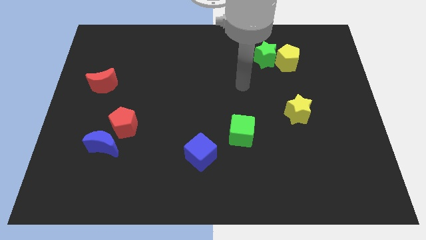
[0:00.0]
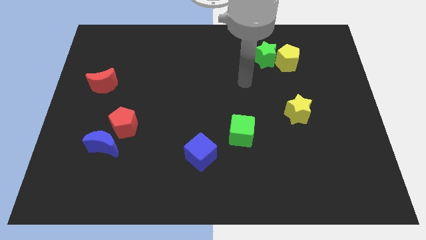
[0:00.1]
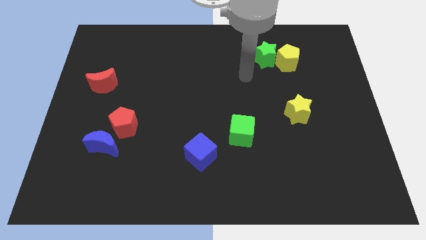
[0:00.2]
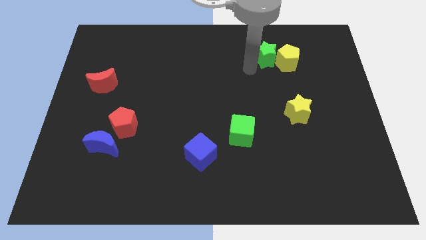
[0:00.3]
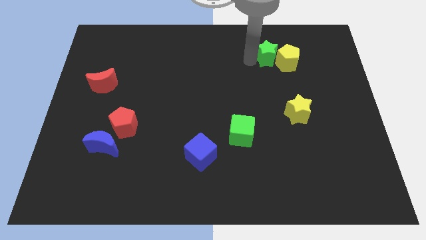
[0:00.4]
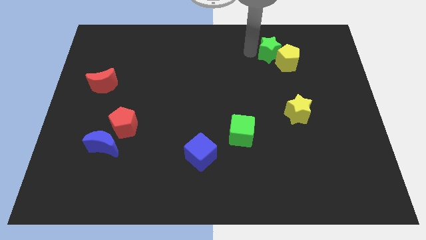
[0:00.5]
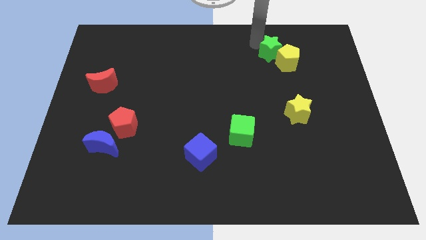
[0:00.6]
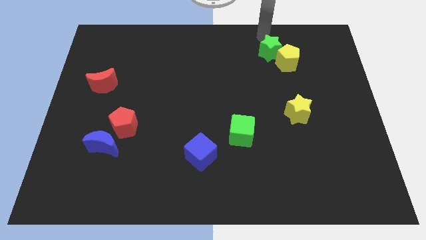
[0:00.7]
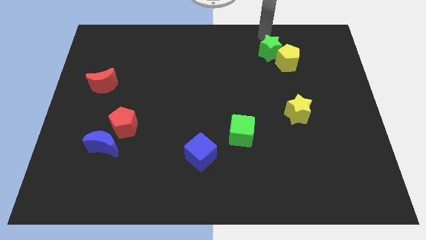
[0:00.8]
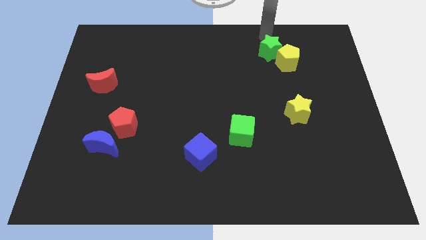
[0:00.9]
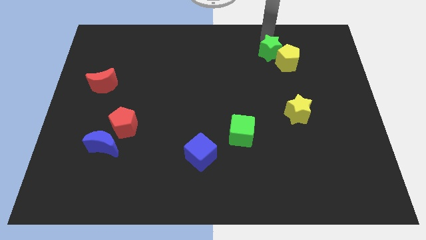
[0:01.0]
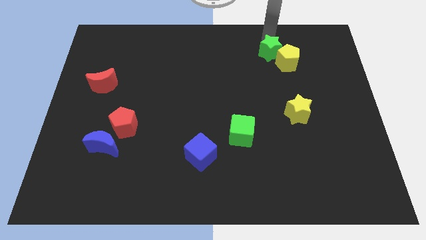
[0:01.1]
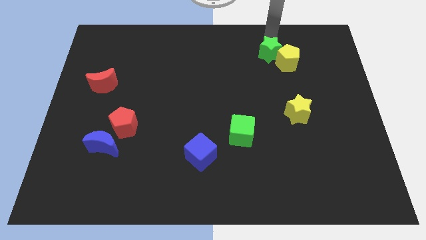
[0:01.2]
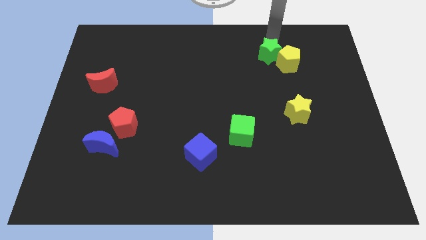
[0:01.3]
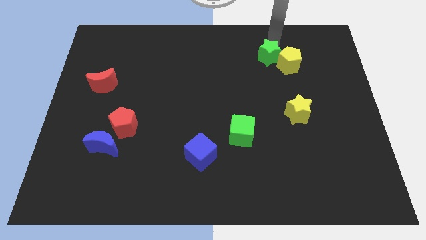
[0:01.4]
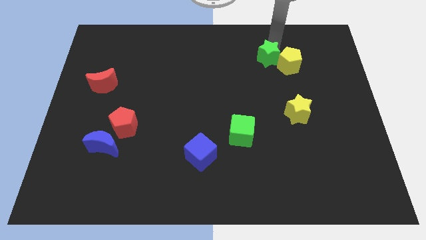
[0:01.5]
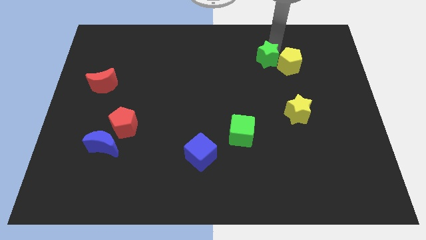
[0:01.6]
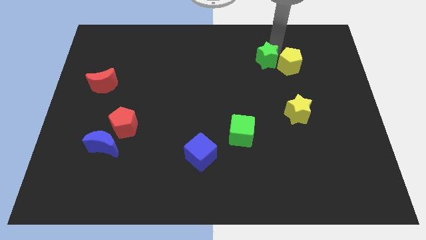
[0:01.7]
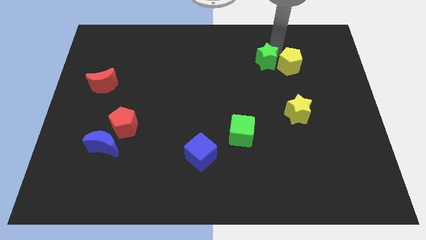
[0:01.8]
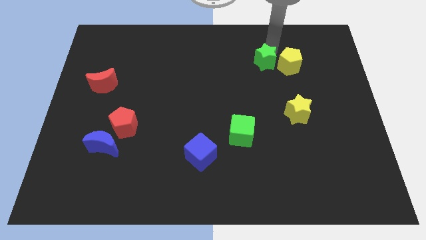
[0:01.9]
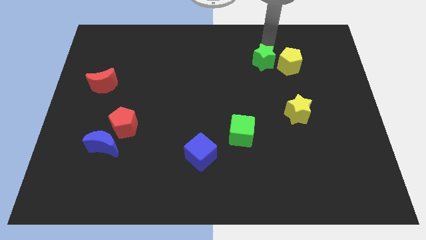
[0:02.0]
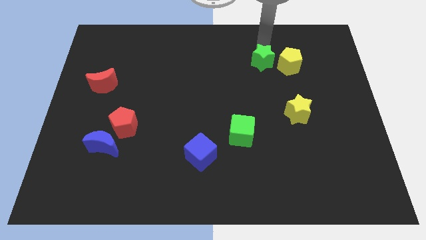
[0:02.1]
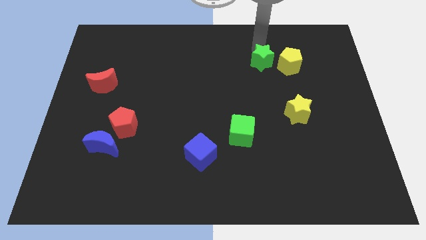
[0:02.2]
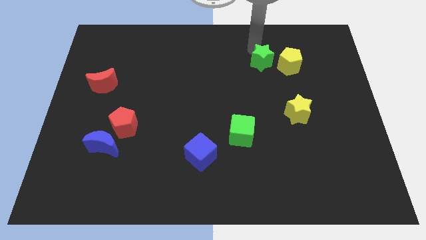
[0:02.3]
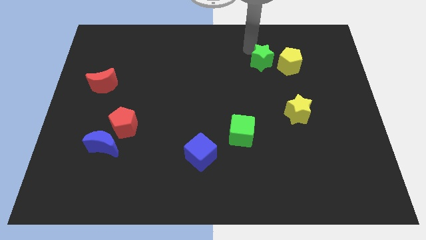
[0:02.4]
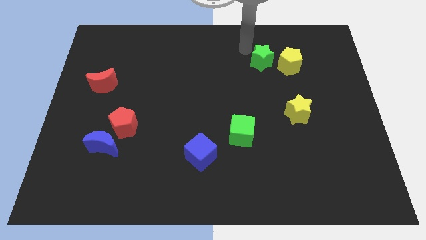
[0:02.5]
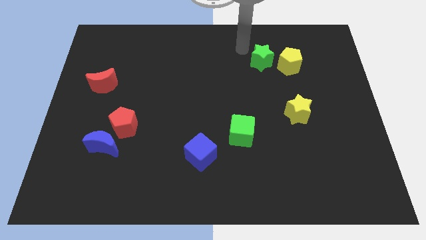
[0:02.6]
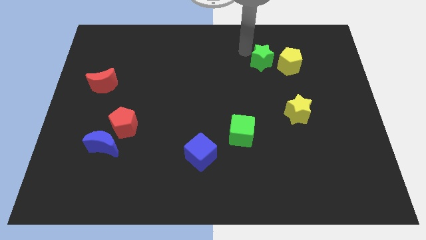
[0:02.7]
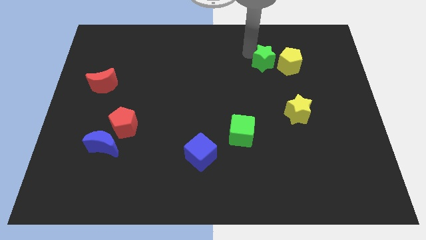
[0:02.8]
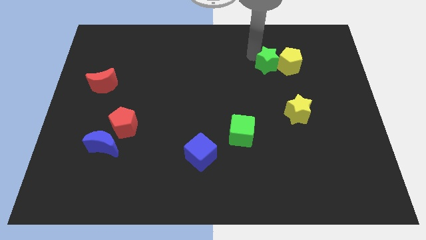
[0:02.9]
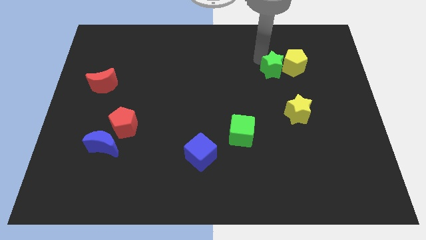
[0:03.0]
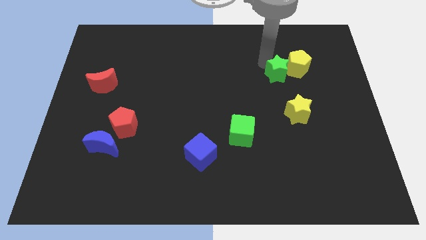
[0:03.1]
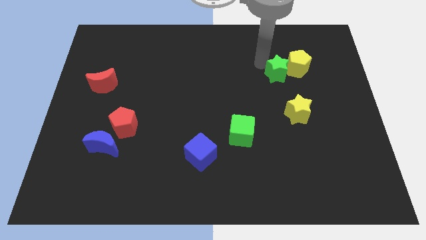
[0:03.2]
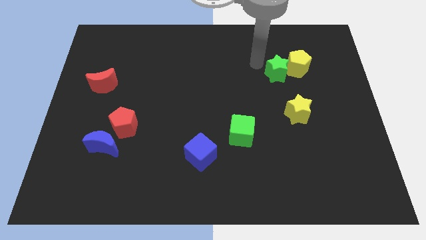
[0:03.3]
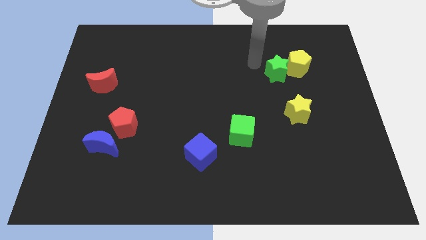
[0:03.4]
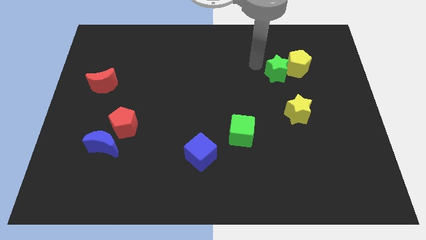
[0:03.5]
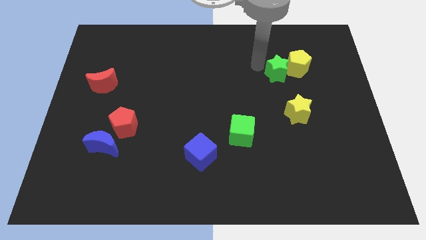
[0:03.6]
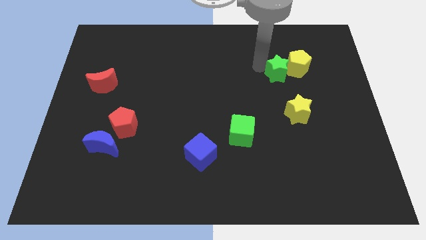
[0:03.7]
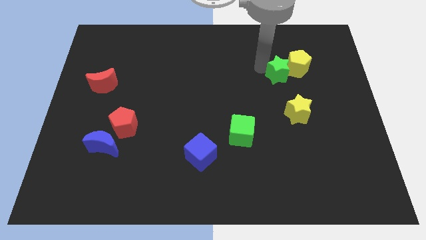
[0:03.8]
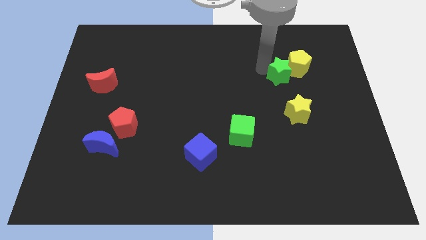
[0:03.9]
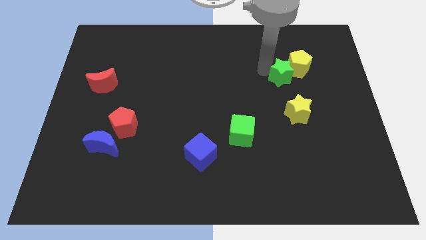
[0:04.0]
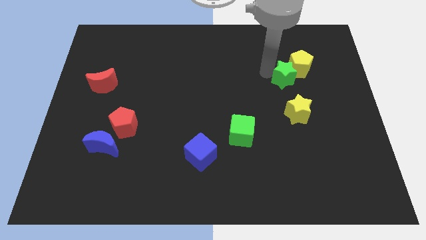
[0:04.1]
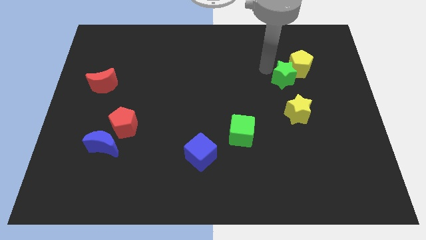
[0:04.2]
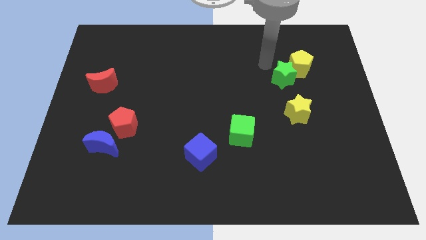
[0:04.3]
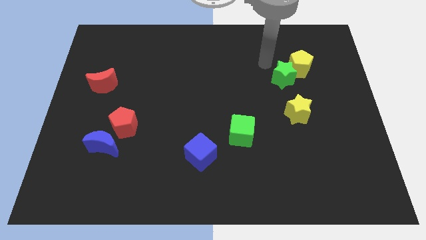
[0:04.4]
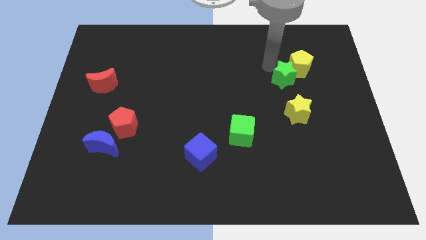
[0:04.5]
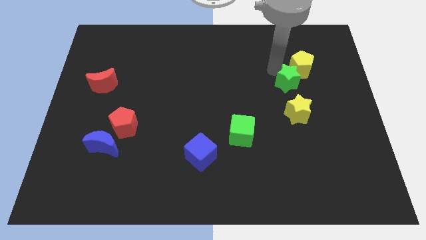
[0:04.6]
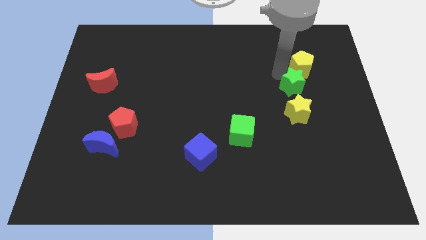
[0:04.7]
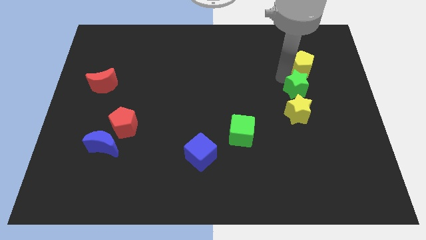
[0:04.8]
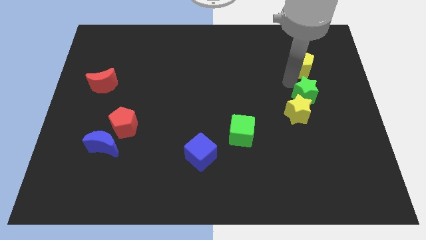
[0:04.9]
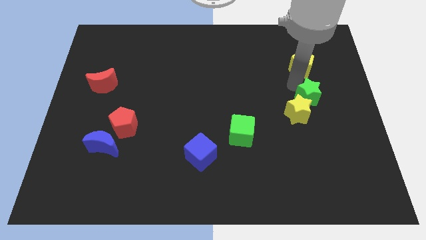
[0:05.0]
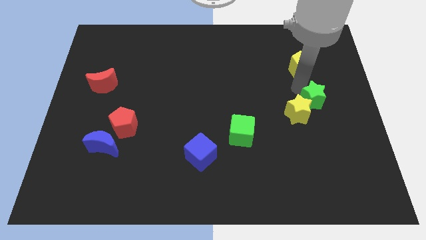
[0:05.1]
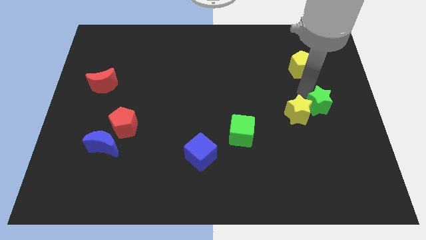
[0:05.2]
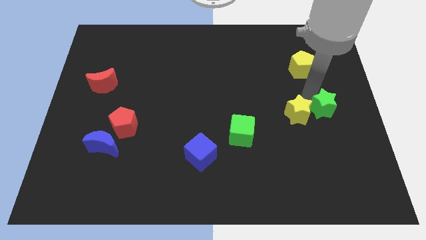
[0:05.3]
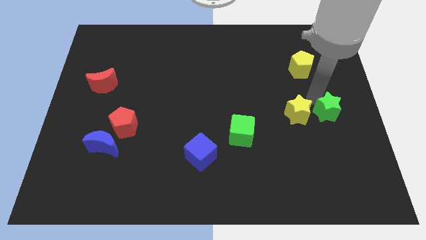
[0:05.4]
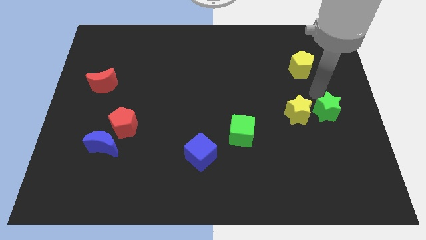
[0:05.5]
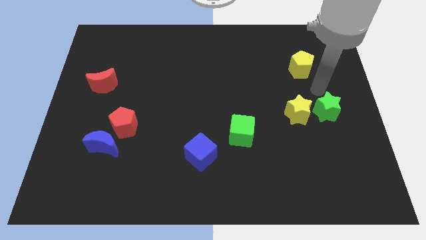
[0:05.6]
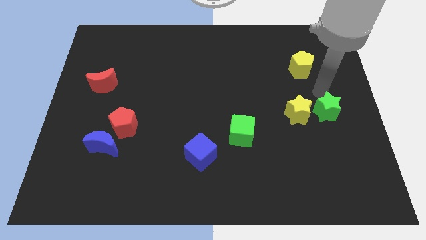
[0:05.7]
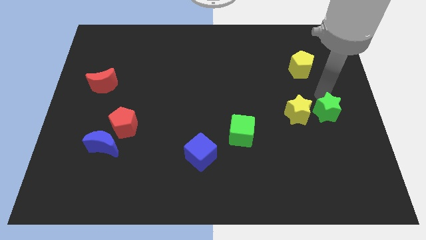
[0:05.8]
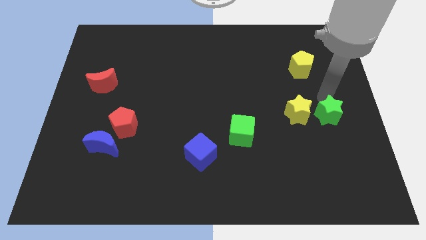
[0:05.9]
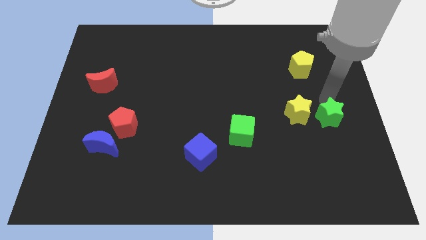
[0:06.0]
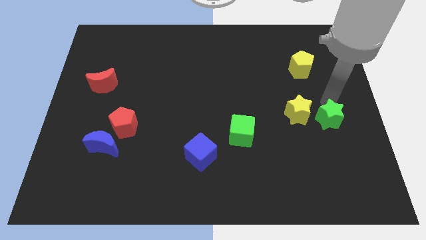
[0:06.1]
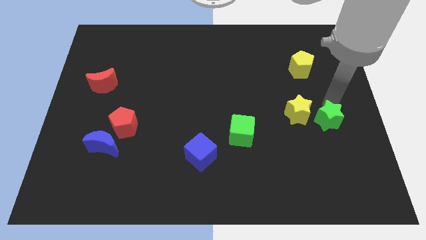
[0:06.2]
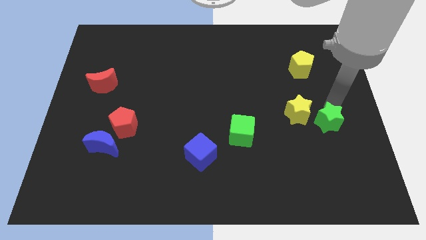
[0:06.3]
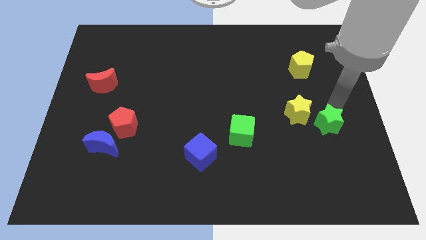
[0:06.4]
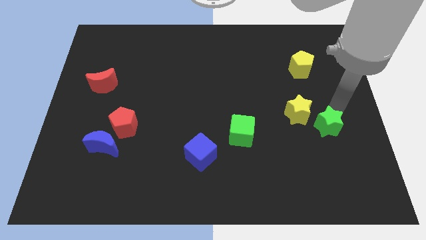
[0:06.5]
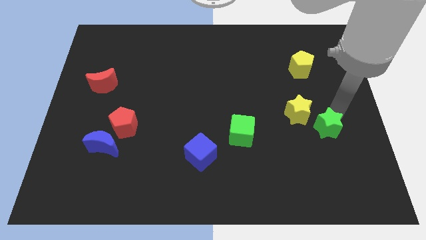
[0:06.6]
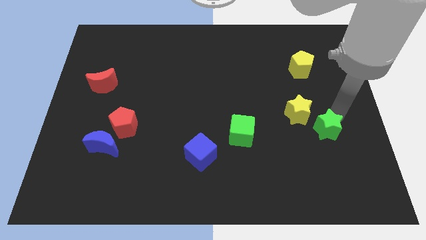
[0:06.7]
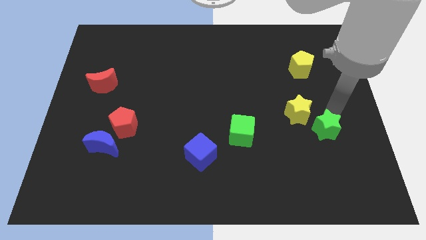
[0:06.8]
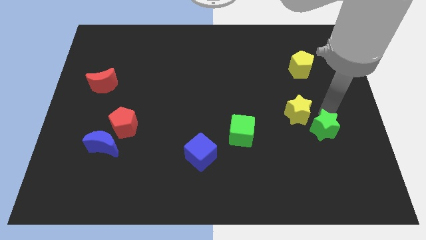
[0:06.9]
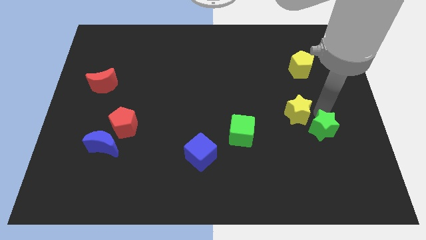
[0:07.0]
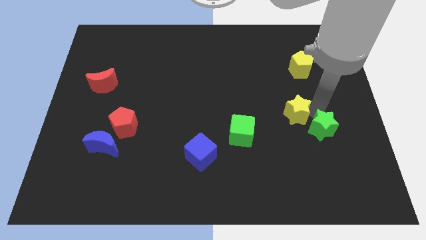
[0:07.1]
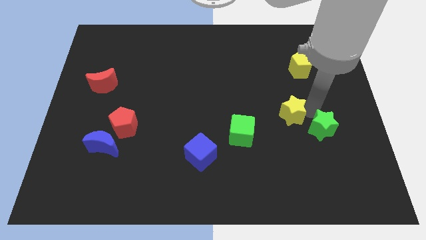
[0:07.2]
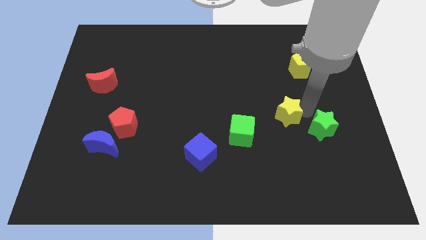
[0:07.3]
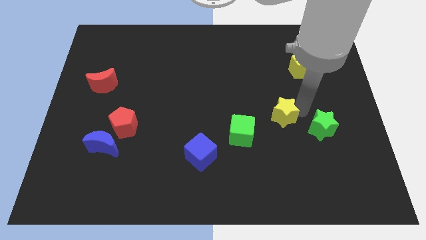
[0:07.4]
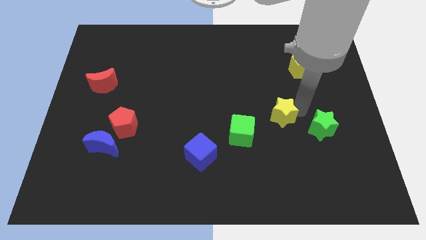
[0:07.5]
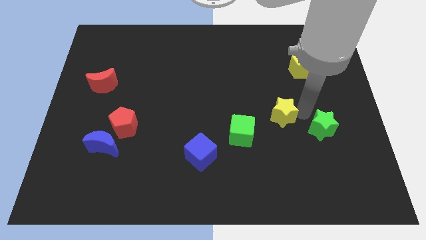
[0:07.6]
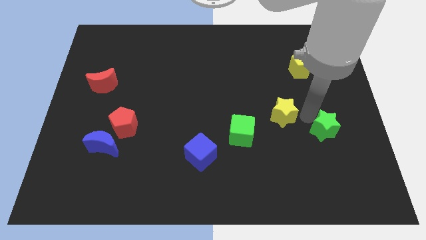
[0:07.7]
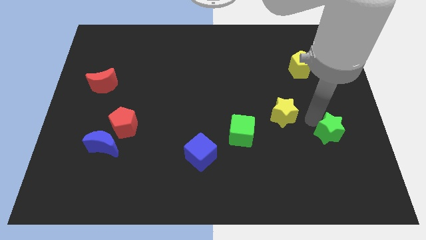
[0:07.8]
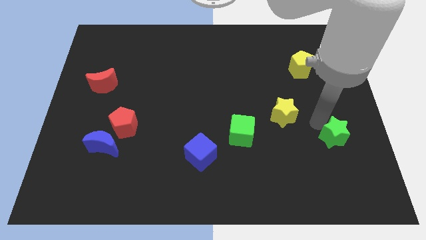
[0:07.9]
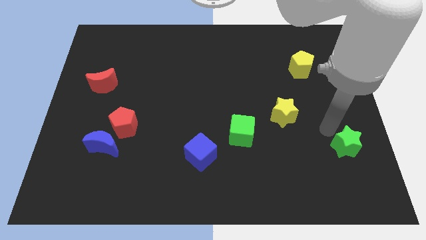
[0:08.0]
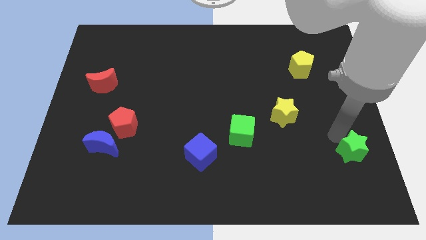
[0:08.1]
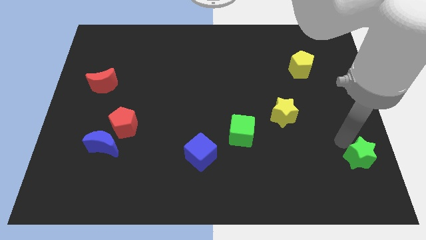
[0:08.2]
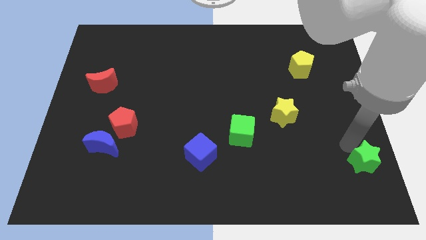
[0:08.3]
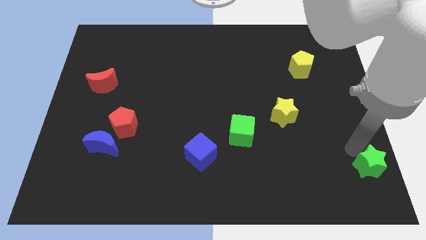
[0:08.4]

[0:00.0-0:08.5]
move the green star to the bottom right
